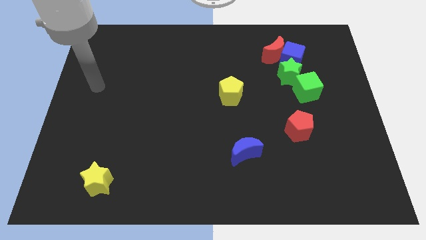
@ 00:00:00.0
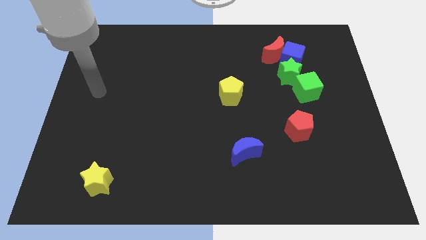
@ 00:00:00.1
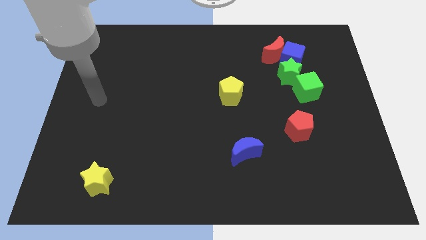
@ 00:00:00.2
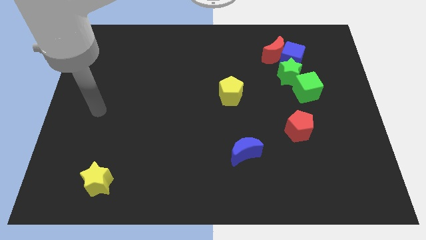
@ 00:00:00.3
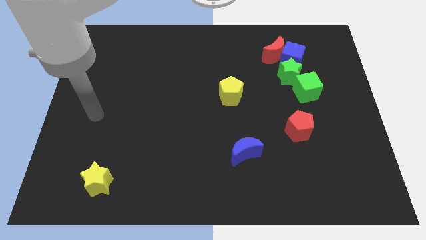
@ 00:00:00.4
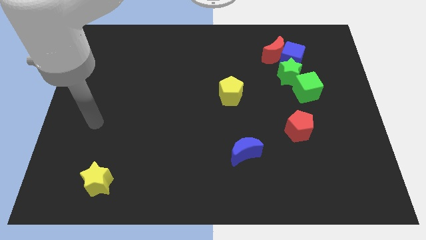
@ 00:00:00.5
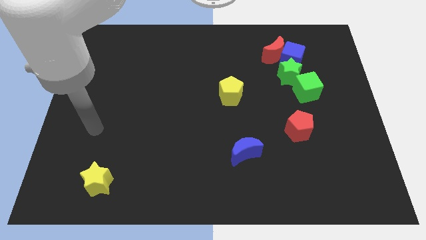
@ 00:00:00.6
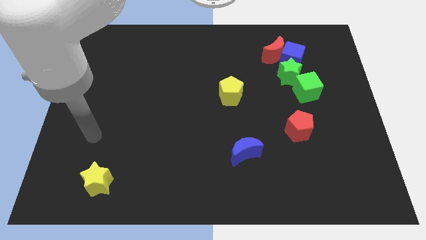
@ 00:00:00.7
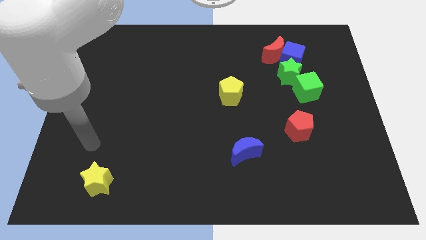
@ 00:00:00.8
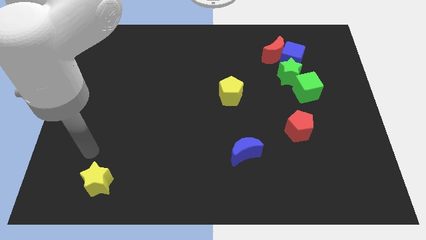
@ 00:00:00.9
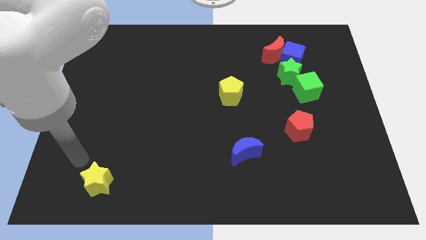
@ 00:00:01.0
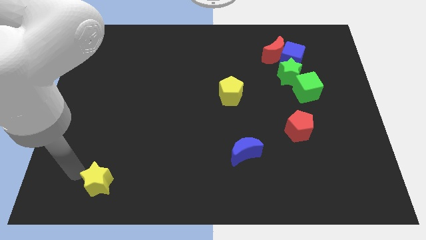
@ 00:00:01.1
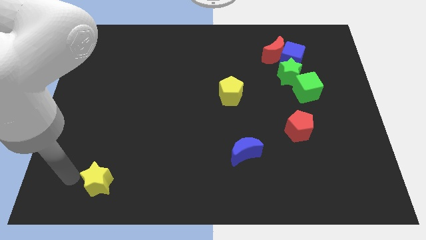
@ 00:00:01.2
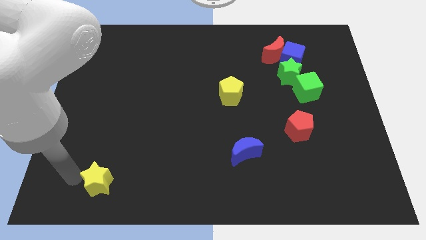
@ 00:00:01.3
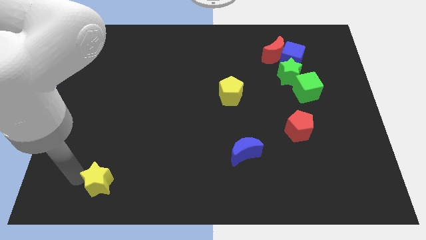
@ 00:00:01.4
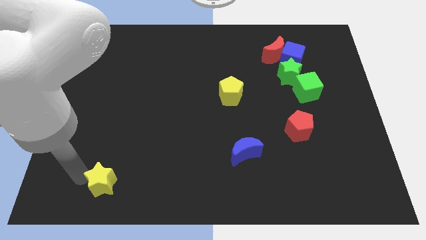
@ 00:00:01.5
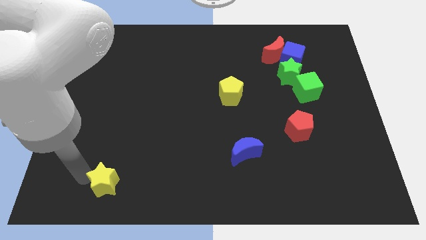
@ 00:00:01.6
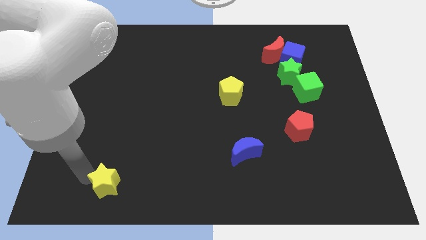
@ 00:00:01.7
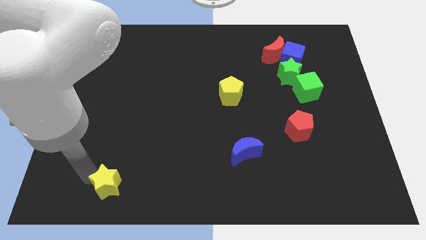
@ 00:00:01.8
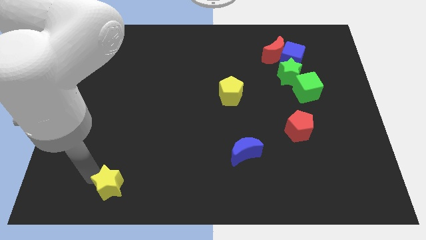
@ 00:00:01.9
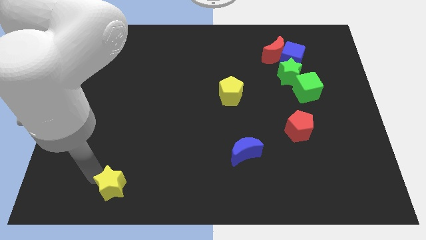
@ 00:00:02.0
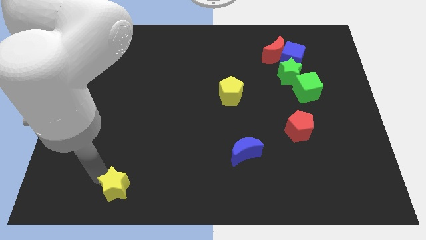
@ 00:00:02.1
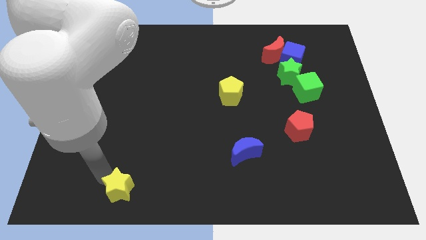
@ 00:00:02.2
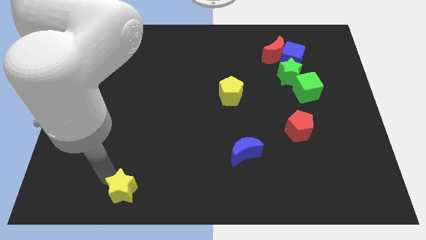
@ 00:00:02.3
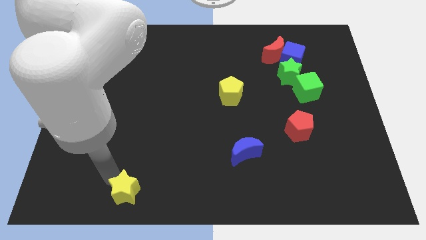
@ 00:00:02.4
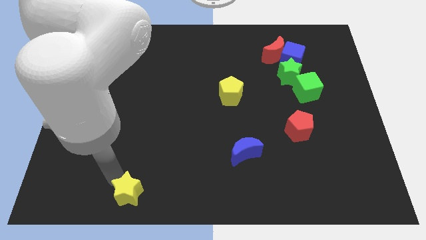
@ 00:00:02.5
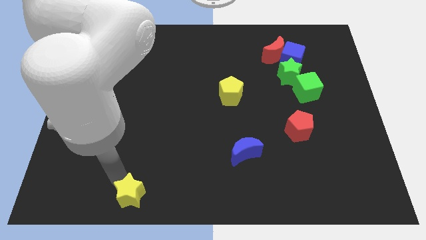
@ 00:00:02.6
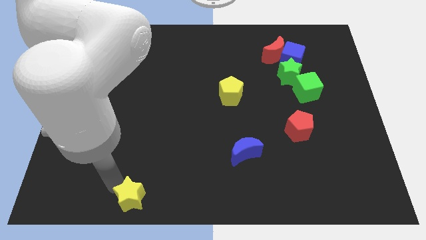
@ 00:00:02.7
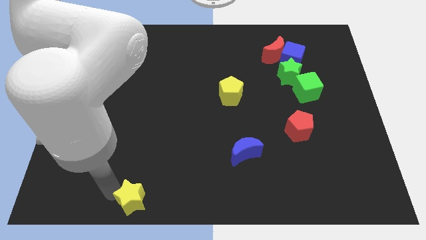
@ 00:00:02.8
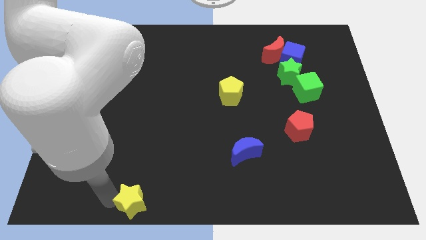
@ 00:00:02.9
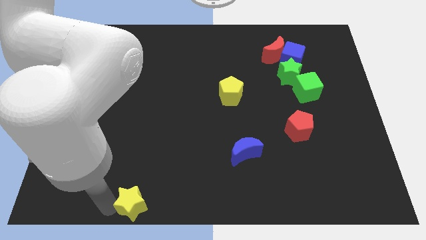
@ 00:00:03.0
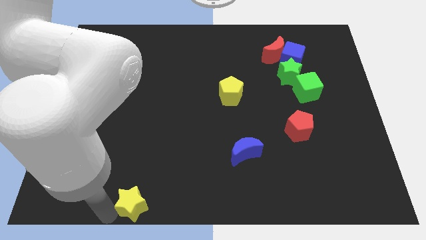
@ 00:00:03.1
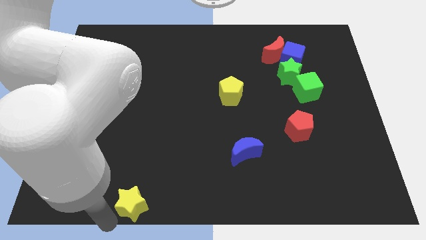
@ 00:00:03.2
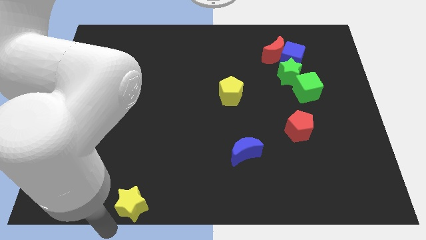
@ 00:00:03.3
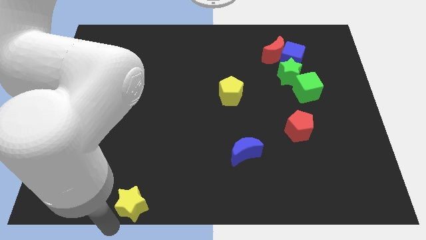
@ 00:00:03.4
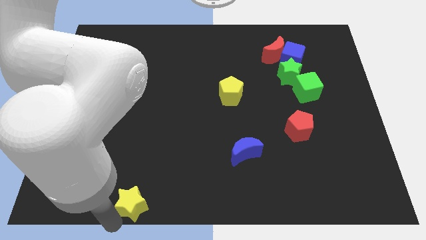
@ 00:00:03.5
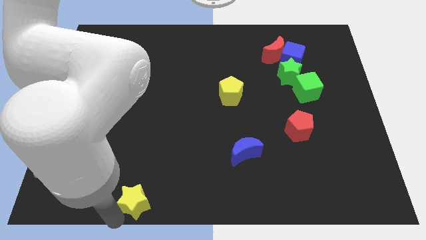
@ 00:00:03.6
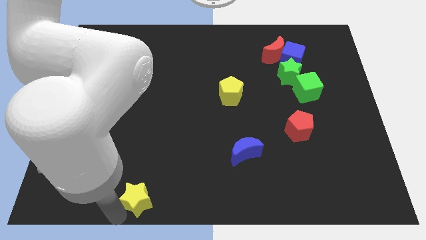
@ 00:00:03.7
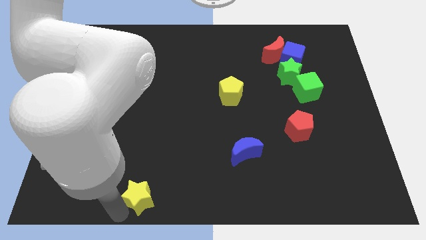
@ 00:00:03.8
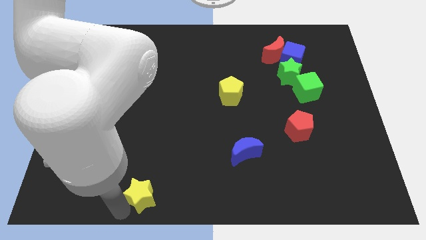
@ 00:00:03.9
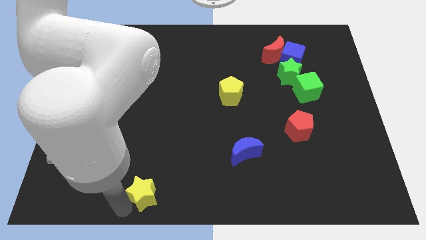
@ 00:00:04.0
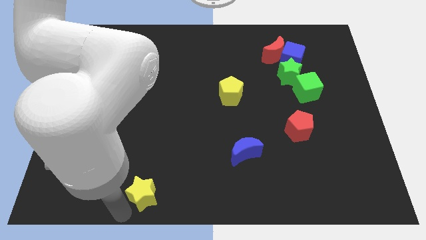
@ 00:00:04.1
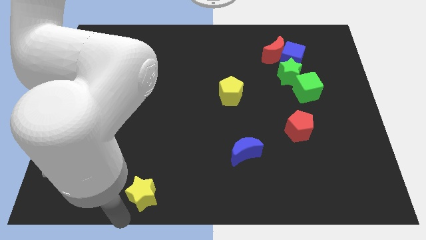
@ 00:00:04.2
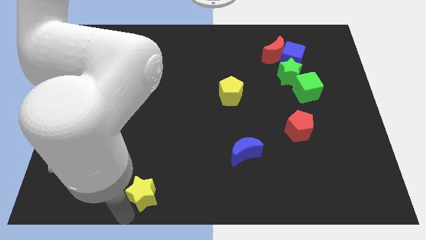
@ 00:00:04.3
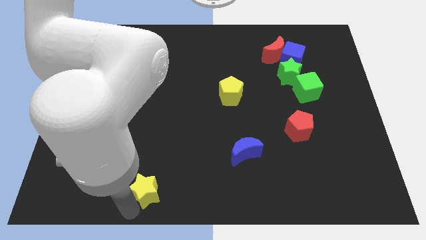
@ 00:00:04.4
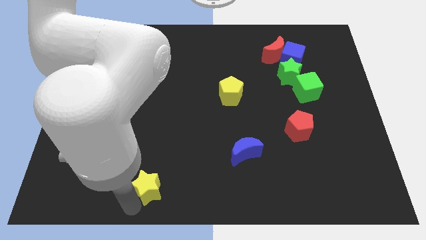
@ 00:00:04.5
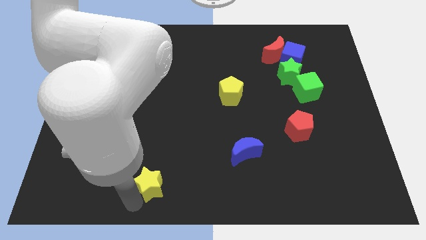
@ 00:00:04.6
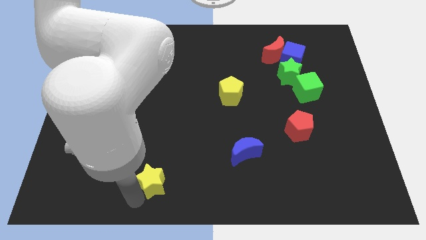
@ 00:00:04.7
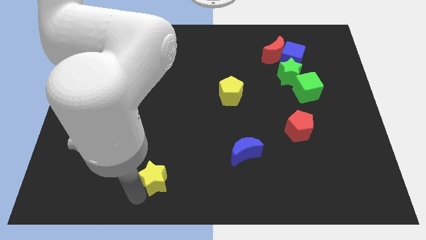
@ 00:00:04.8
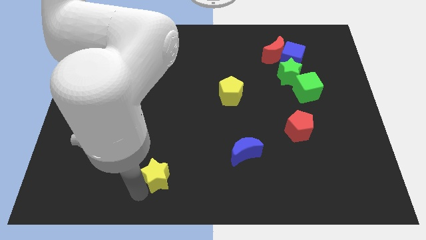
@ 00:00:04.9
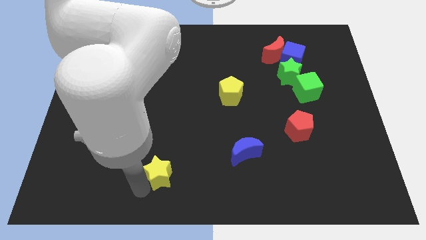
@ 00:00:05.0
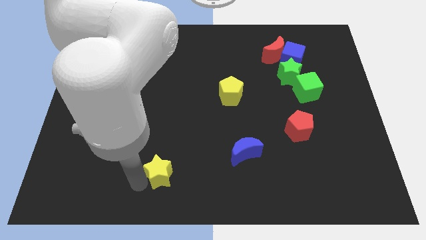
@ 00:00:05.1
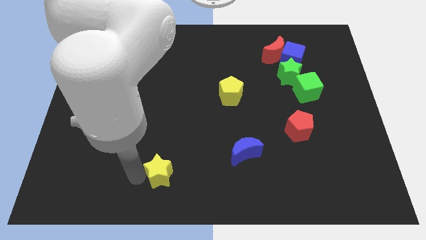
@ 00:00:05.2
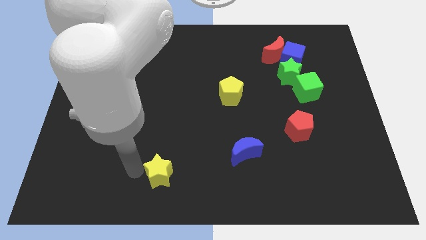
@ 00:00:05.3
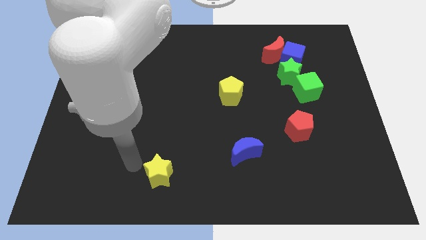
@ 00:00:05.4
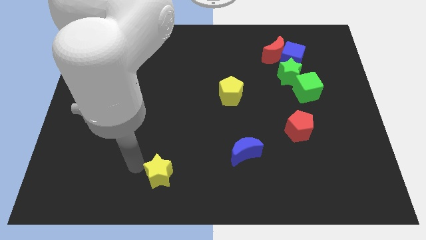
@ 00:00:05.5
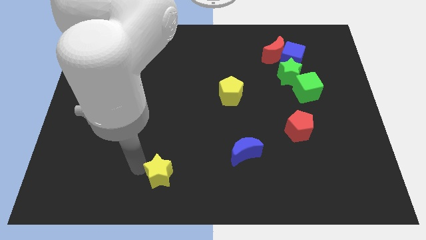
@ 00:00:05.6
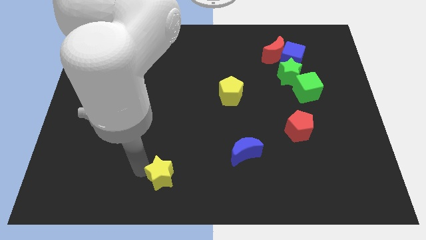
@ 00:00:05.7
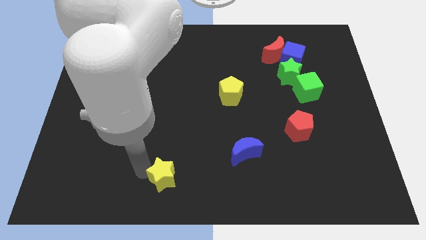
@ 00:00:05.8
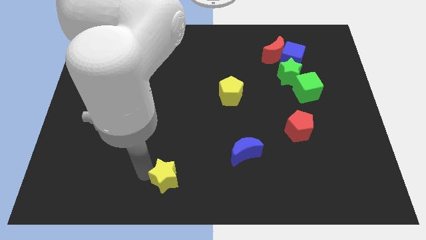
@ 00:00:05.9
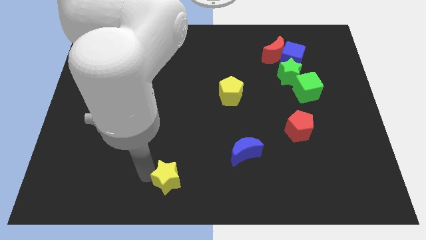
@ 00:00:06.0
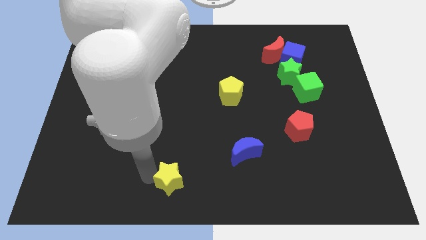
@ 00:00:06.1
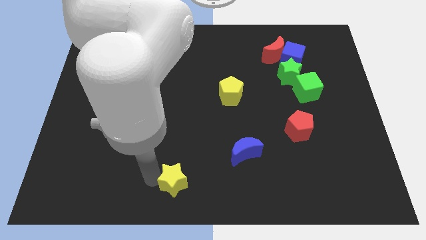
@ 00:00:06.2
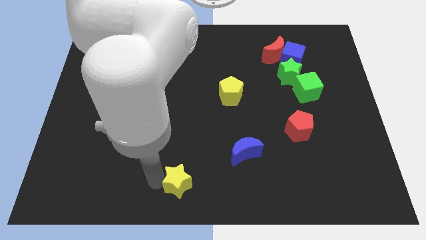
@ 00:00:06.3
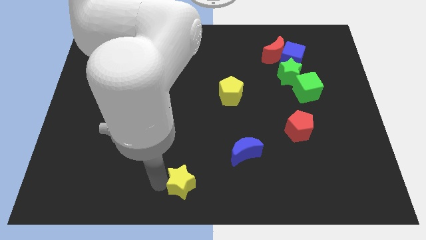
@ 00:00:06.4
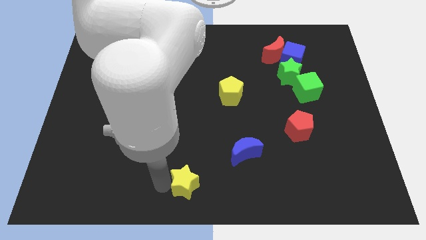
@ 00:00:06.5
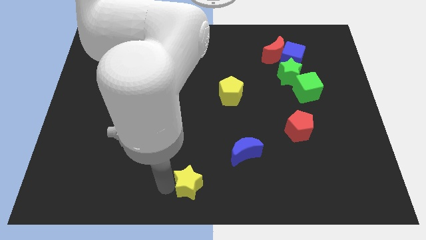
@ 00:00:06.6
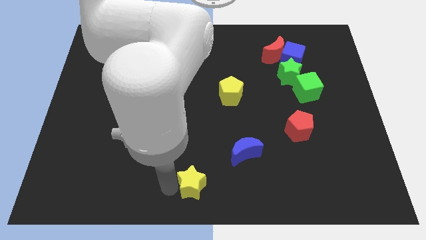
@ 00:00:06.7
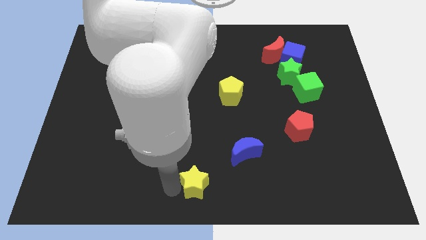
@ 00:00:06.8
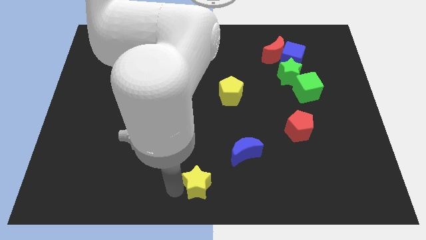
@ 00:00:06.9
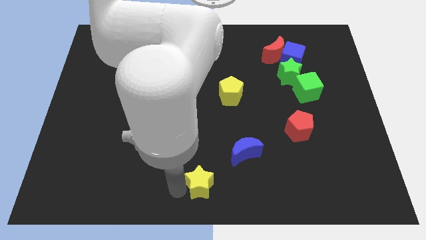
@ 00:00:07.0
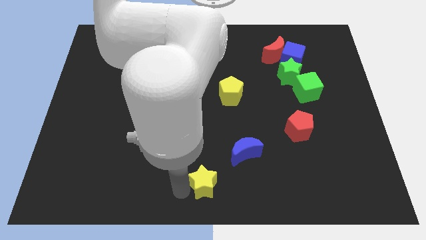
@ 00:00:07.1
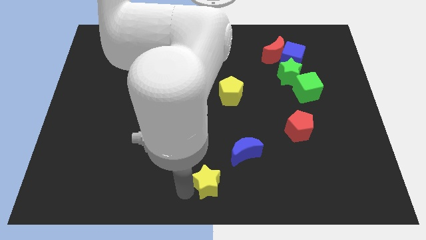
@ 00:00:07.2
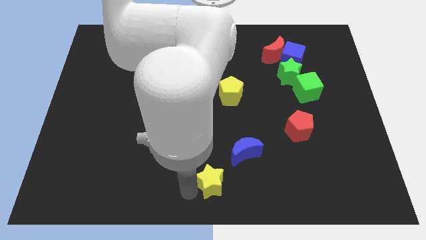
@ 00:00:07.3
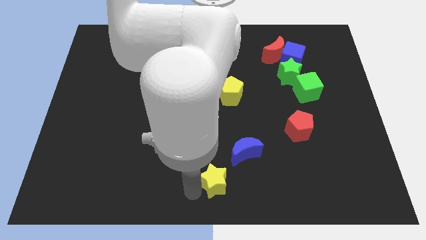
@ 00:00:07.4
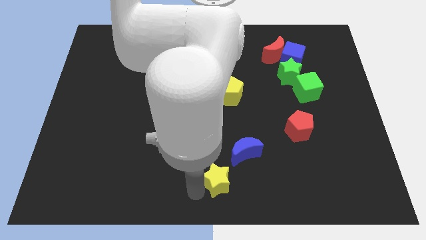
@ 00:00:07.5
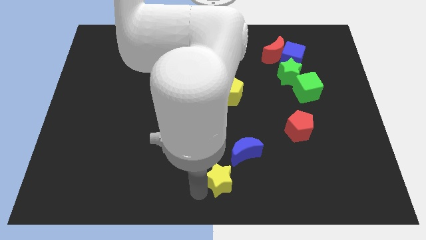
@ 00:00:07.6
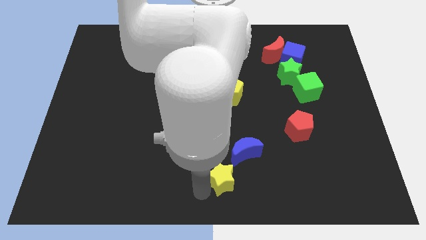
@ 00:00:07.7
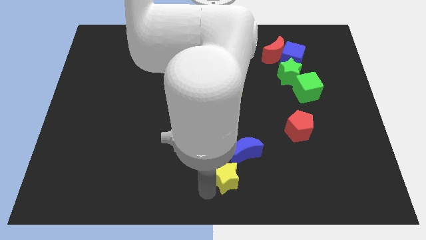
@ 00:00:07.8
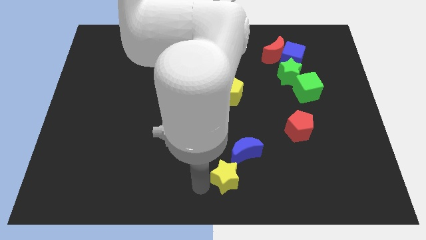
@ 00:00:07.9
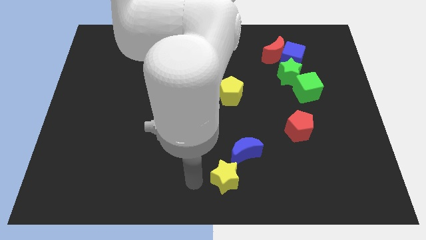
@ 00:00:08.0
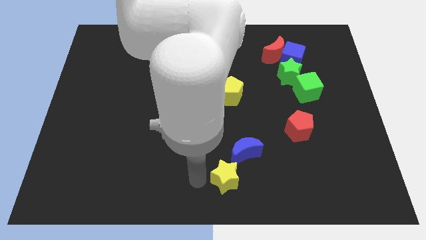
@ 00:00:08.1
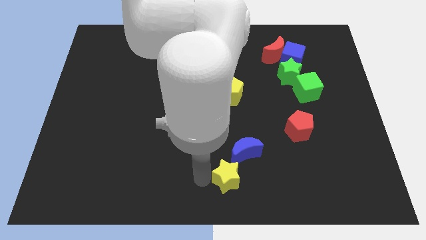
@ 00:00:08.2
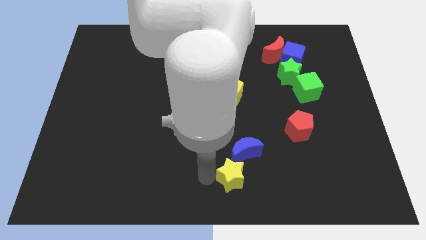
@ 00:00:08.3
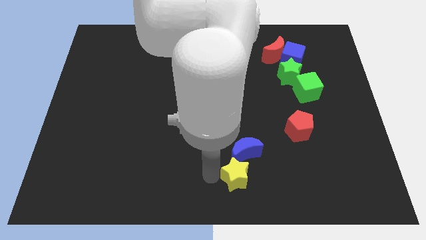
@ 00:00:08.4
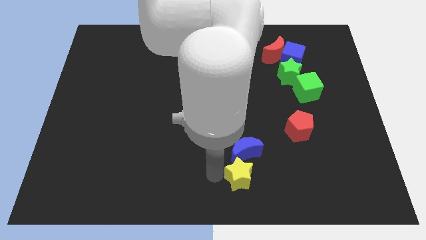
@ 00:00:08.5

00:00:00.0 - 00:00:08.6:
slide the yellow star diagonally down and to the right of the blue moon
